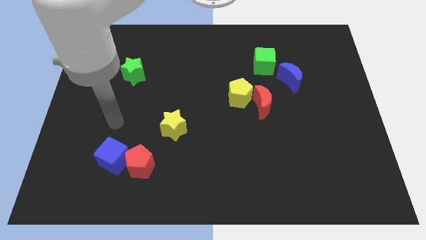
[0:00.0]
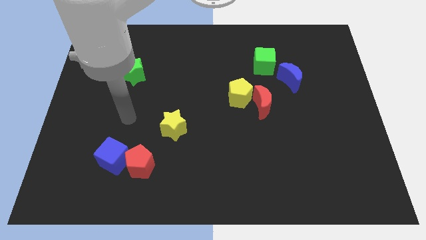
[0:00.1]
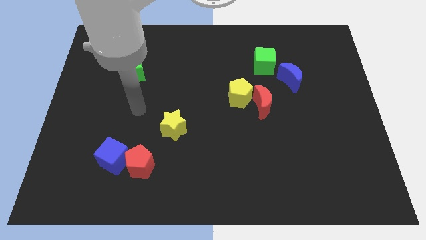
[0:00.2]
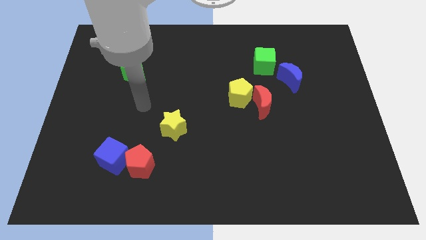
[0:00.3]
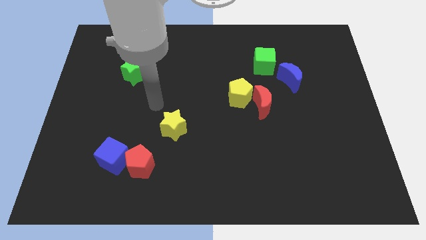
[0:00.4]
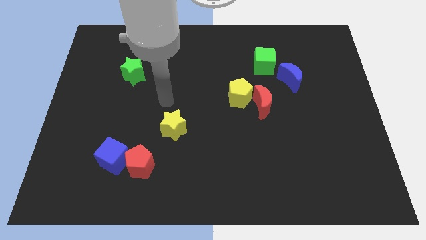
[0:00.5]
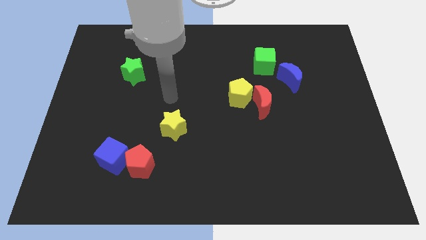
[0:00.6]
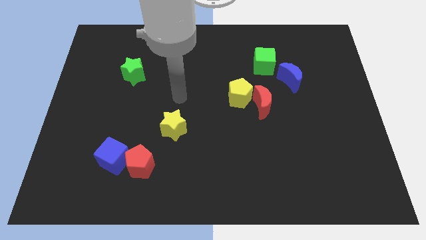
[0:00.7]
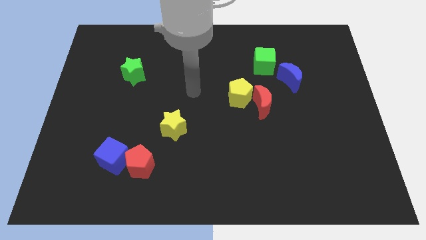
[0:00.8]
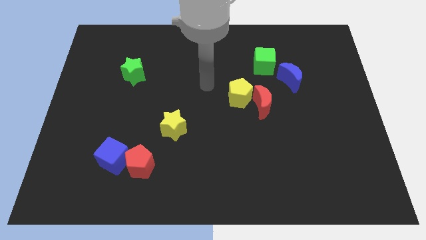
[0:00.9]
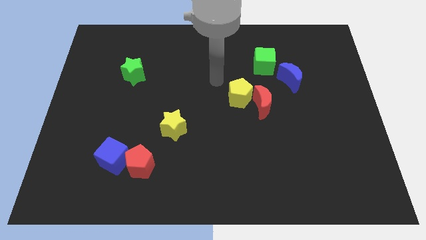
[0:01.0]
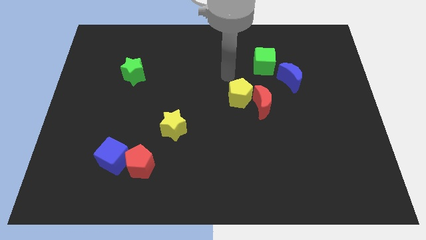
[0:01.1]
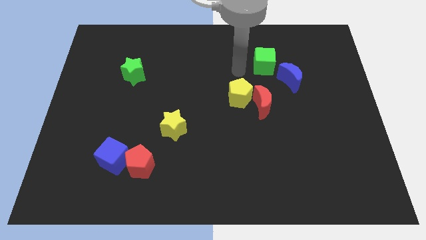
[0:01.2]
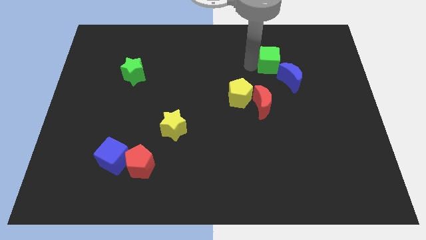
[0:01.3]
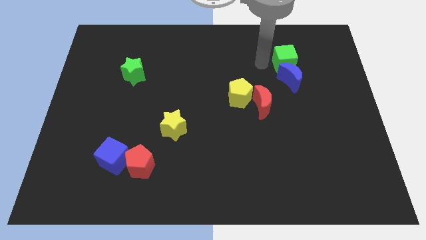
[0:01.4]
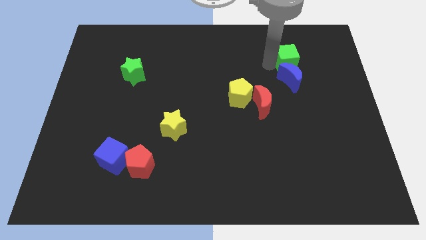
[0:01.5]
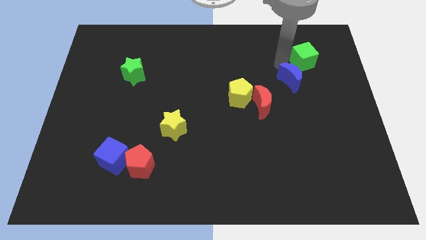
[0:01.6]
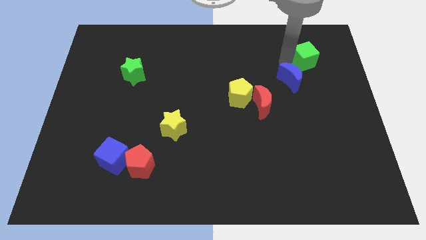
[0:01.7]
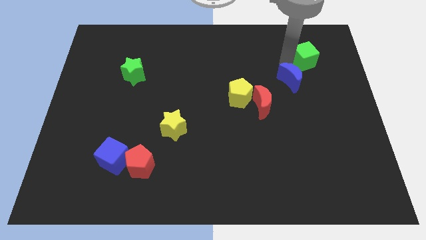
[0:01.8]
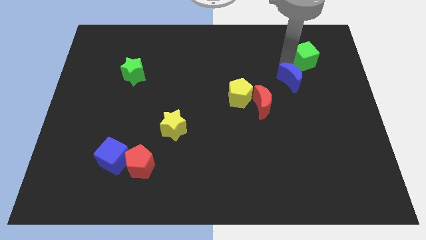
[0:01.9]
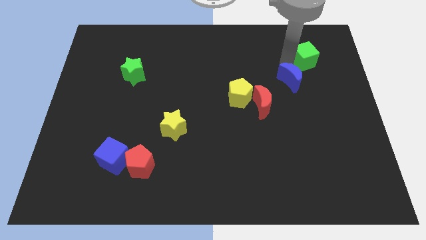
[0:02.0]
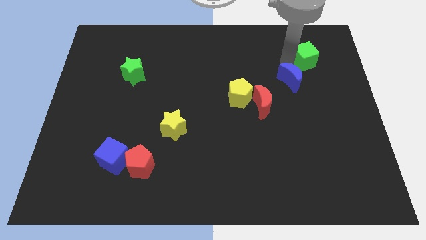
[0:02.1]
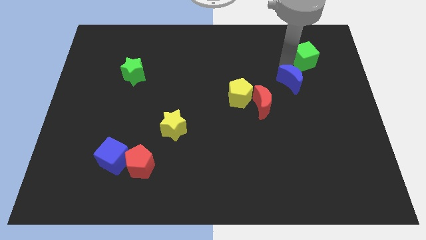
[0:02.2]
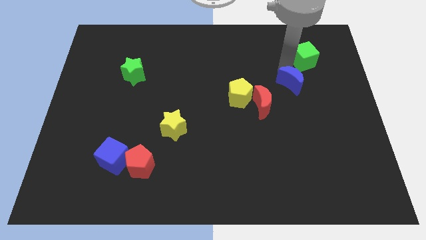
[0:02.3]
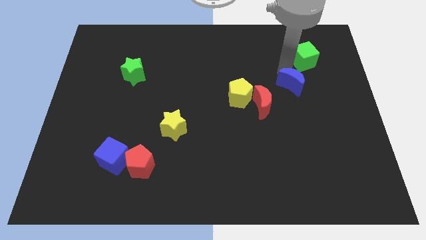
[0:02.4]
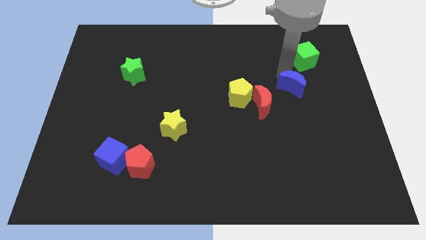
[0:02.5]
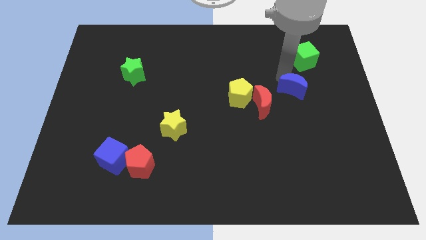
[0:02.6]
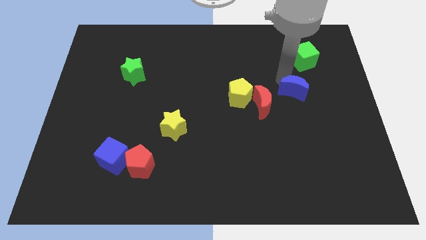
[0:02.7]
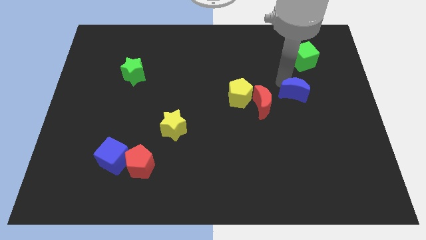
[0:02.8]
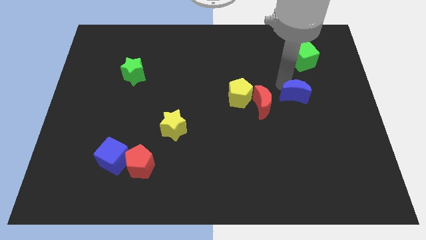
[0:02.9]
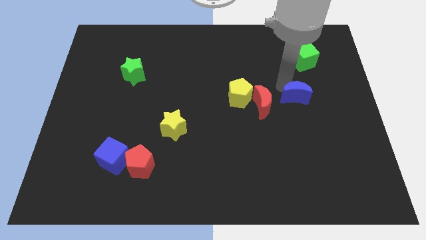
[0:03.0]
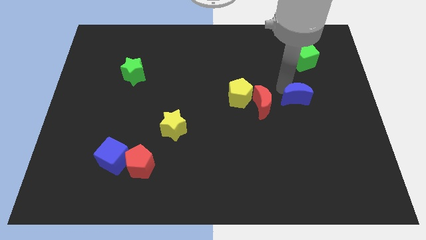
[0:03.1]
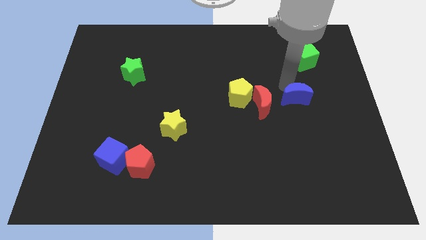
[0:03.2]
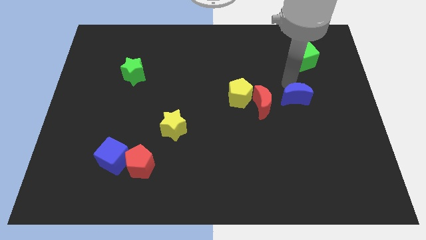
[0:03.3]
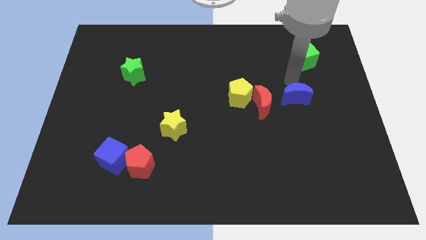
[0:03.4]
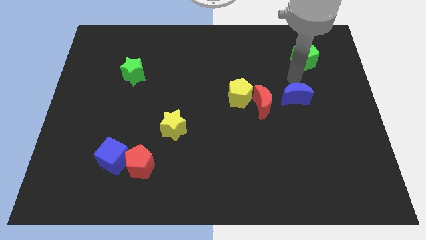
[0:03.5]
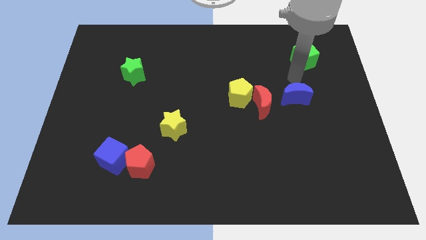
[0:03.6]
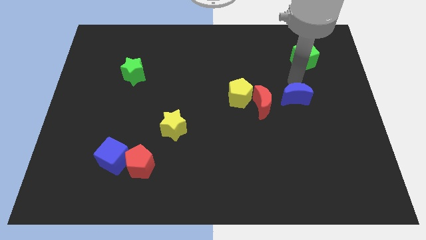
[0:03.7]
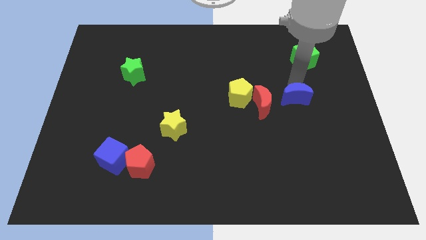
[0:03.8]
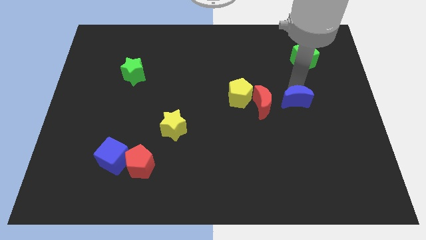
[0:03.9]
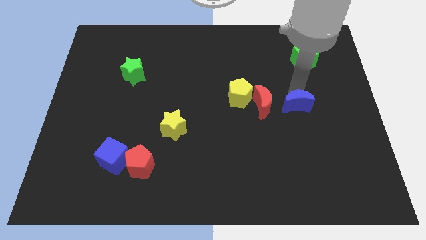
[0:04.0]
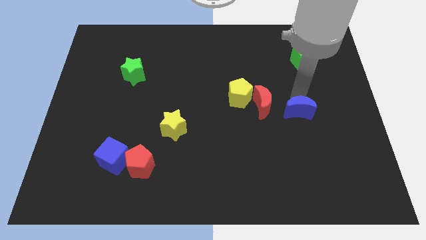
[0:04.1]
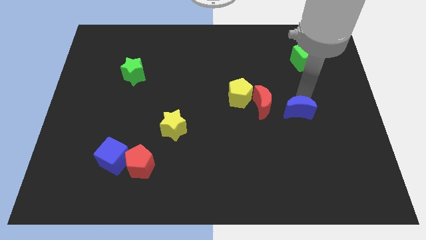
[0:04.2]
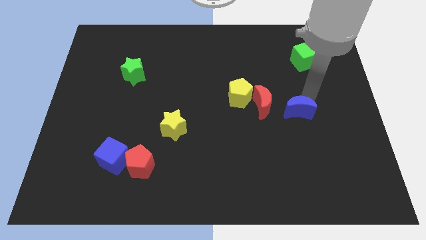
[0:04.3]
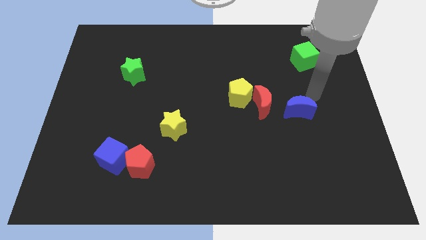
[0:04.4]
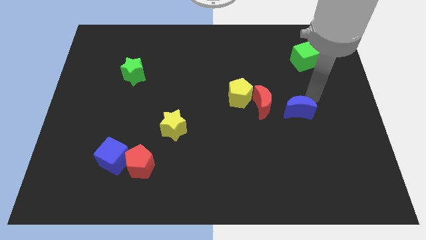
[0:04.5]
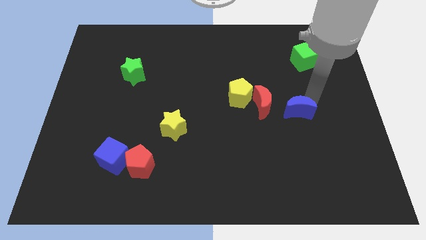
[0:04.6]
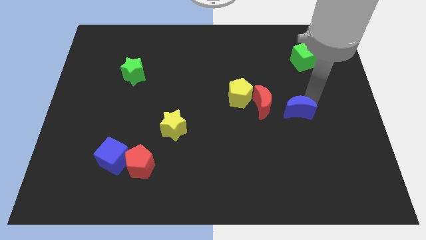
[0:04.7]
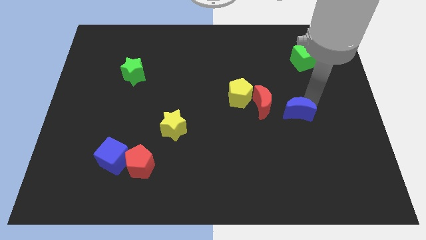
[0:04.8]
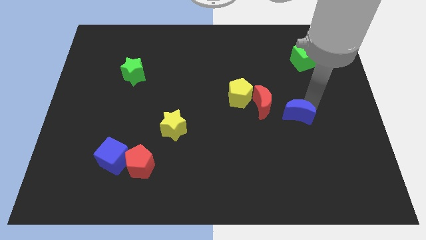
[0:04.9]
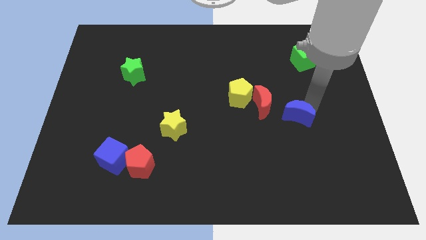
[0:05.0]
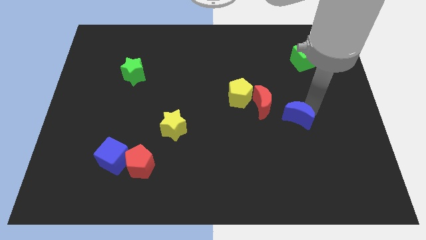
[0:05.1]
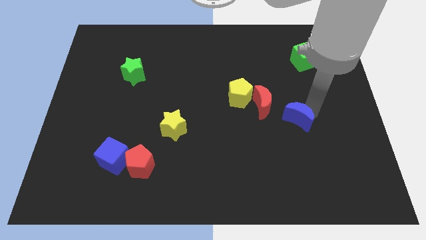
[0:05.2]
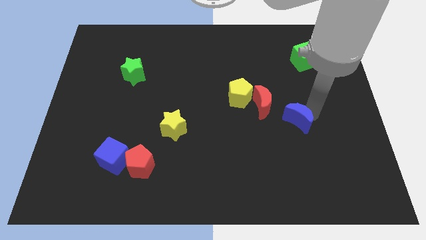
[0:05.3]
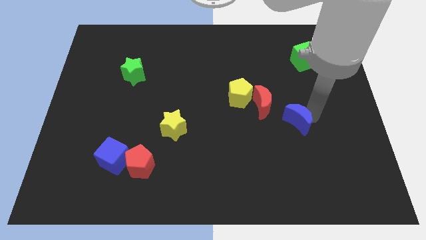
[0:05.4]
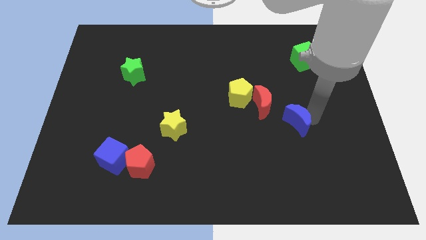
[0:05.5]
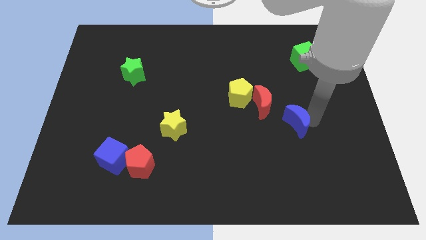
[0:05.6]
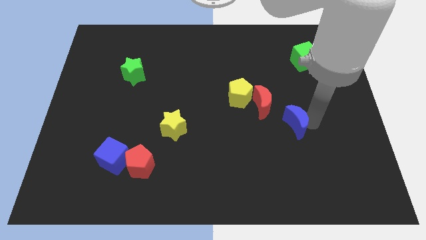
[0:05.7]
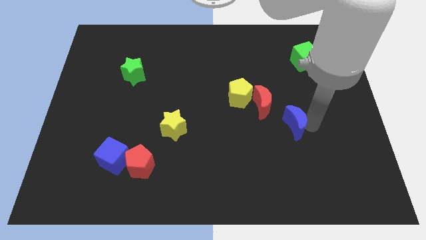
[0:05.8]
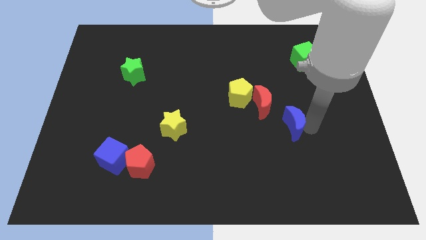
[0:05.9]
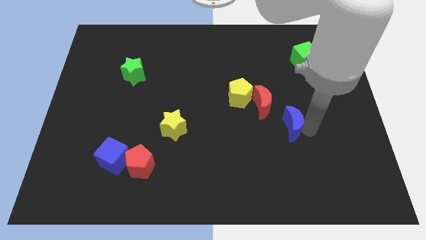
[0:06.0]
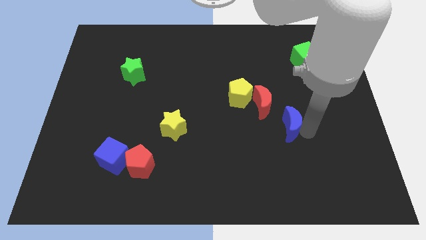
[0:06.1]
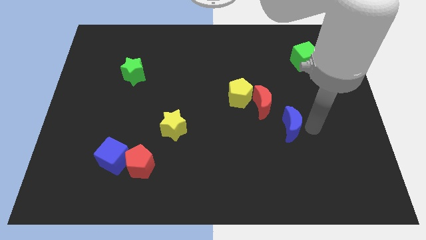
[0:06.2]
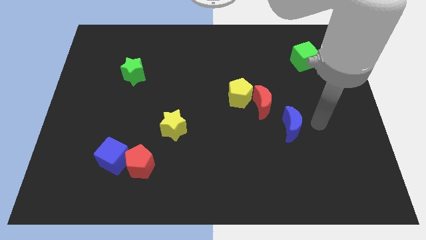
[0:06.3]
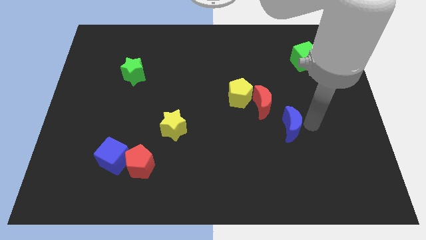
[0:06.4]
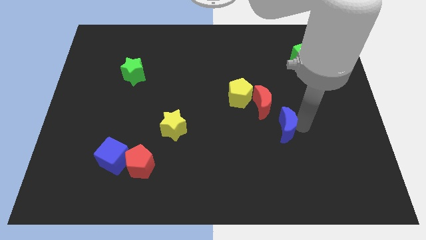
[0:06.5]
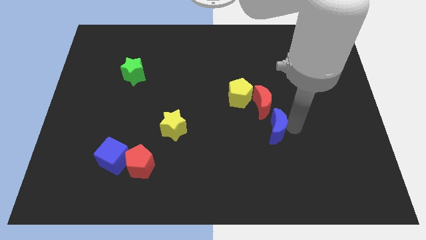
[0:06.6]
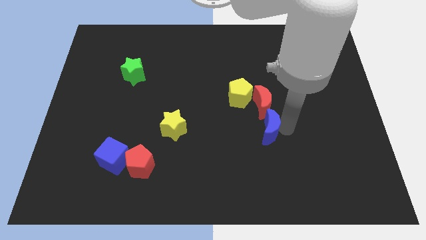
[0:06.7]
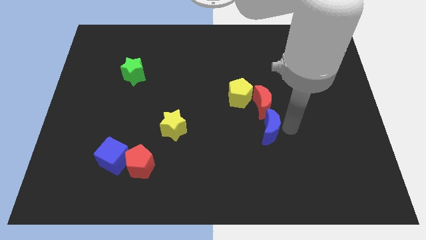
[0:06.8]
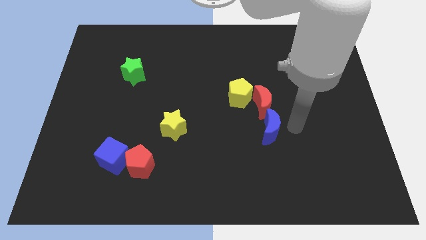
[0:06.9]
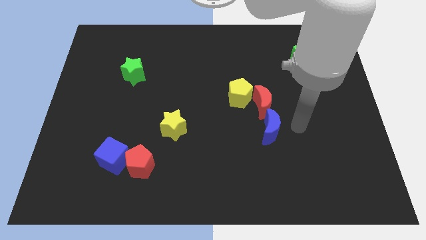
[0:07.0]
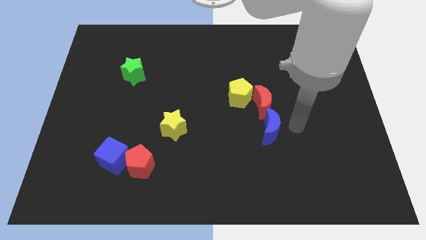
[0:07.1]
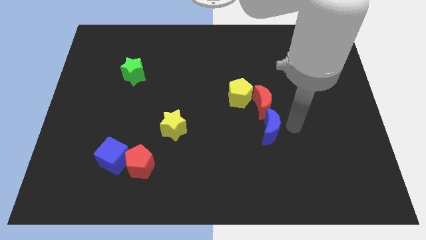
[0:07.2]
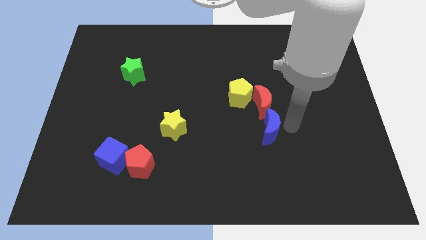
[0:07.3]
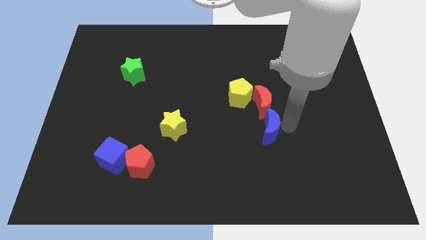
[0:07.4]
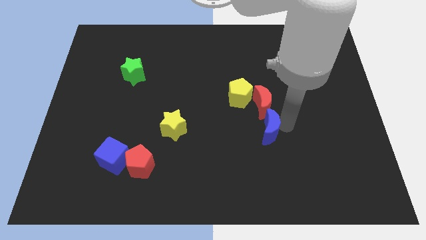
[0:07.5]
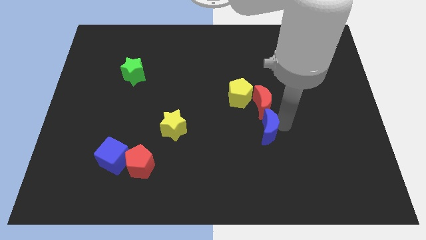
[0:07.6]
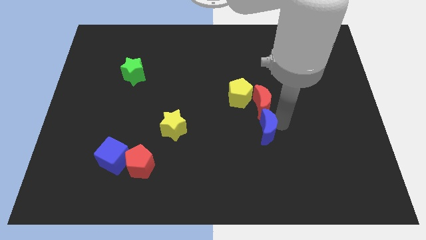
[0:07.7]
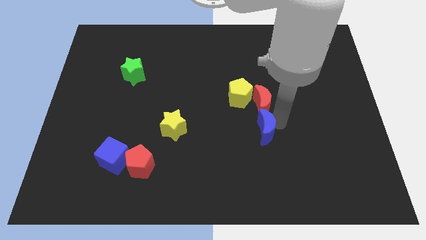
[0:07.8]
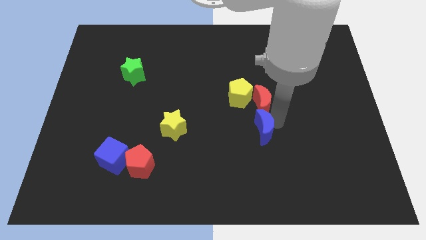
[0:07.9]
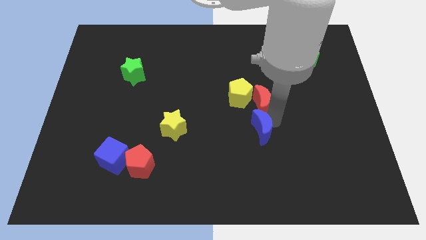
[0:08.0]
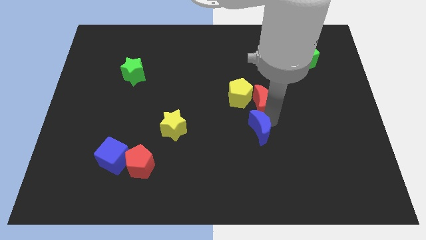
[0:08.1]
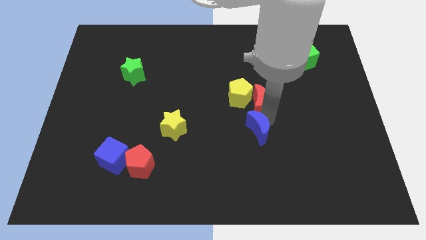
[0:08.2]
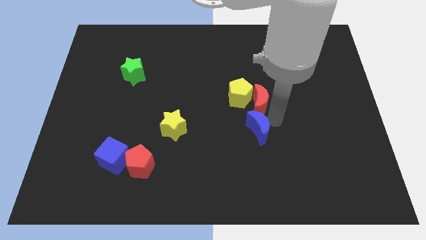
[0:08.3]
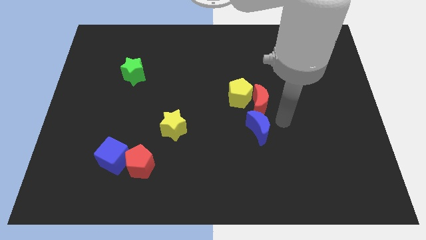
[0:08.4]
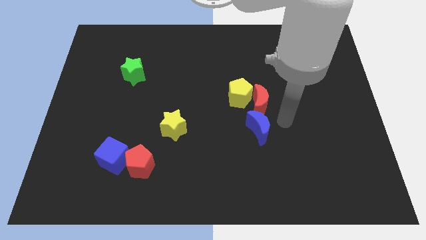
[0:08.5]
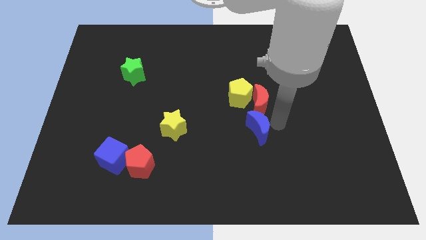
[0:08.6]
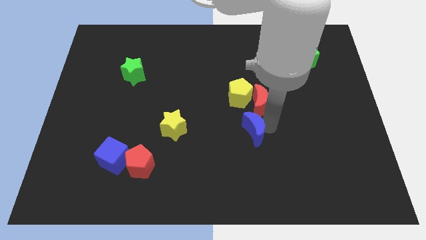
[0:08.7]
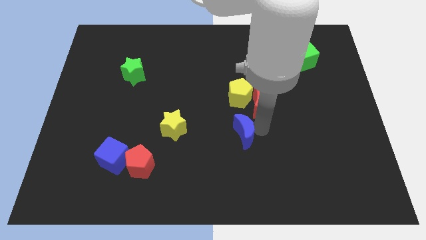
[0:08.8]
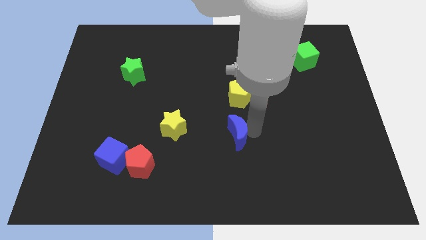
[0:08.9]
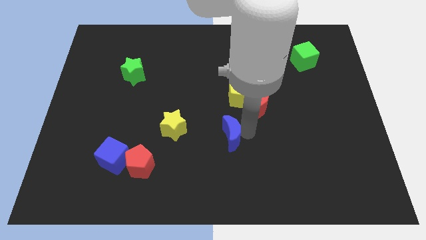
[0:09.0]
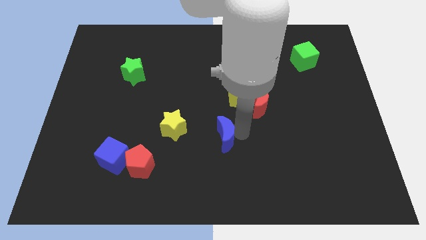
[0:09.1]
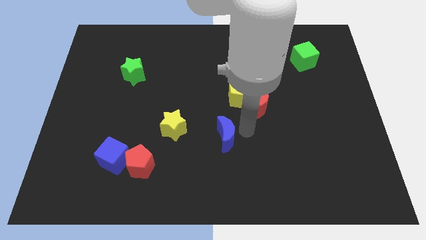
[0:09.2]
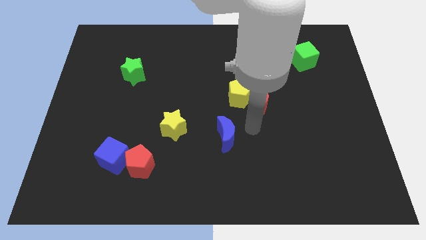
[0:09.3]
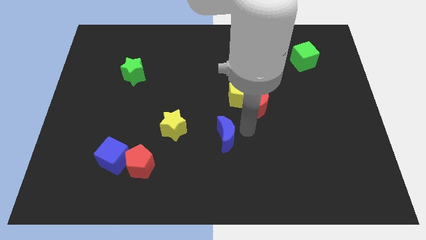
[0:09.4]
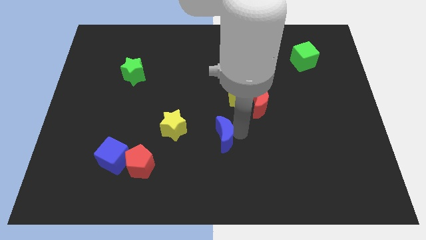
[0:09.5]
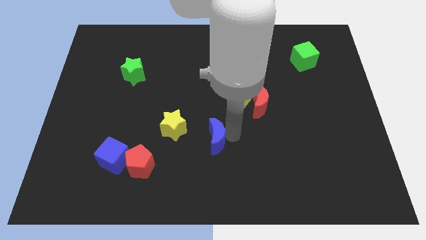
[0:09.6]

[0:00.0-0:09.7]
move the blue moon to the bottom right side of the yellow star
